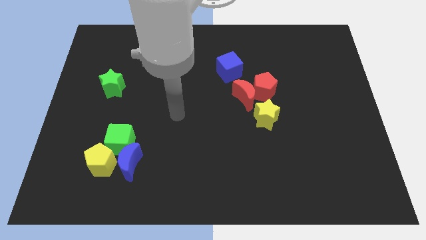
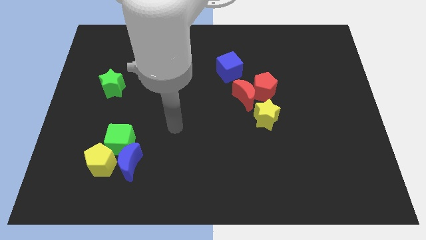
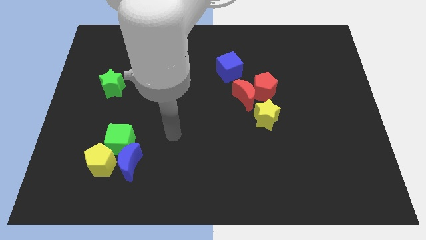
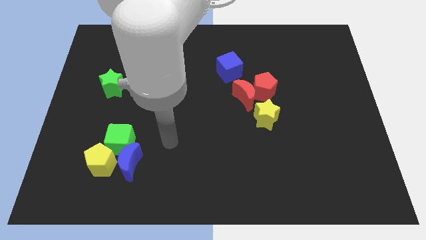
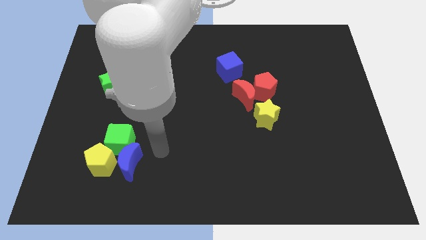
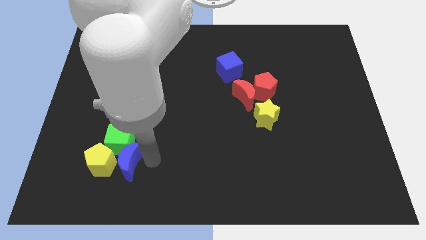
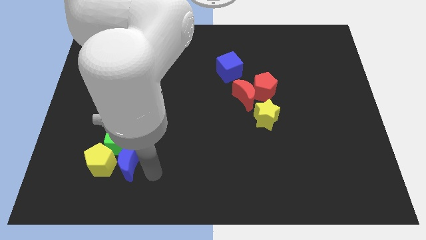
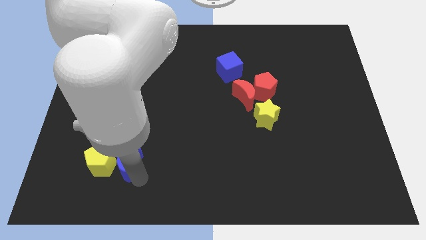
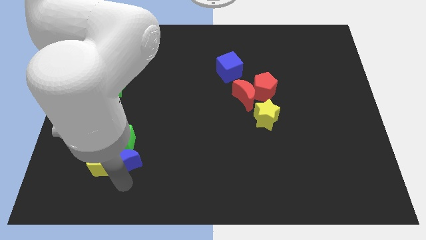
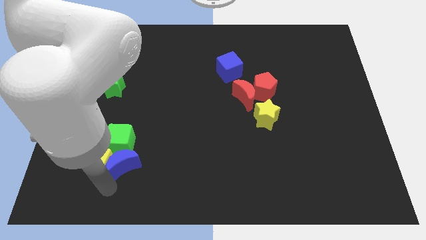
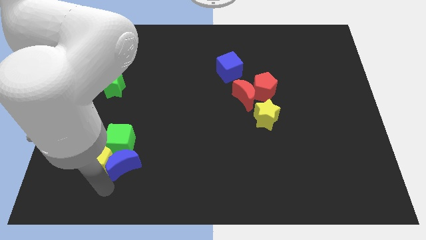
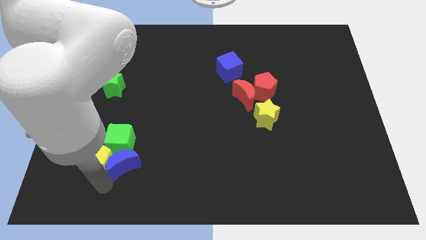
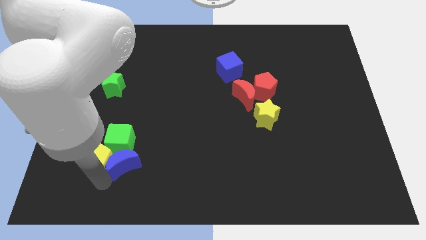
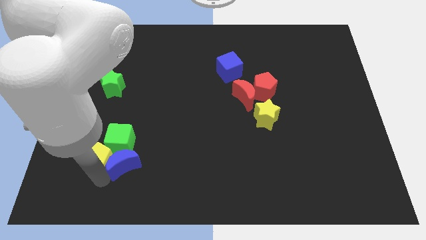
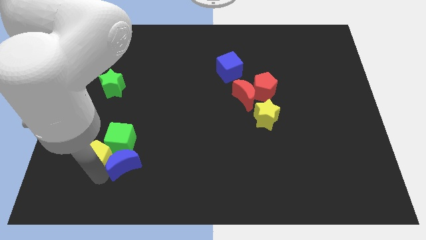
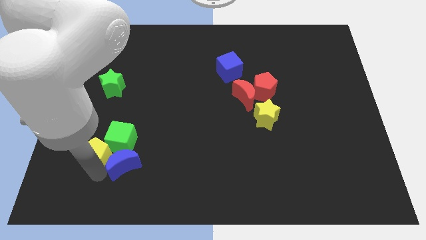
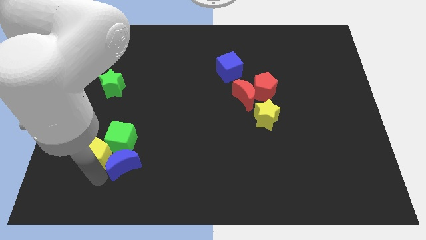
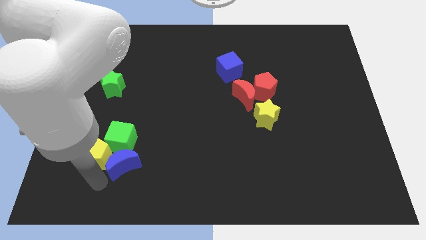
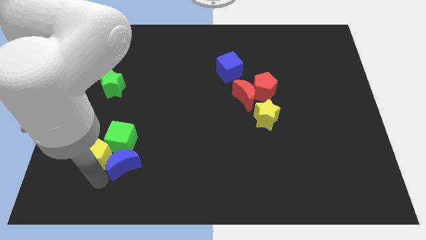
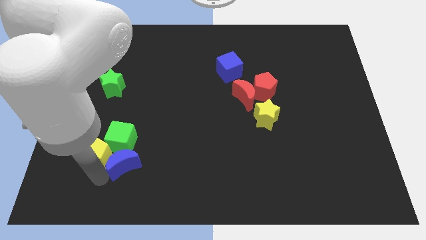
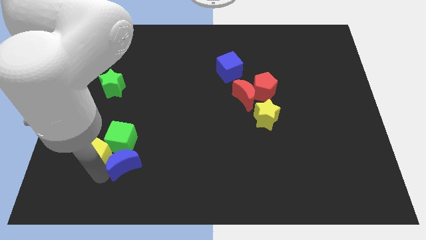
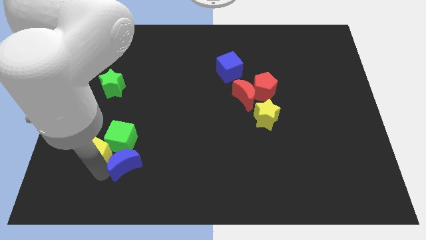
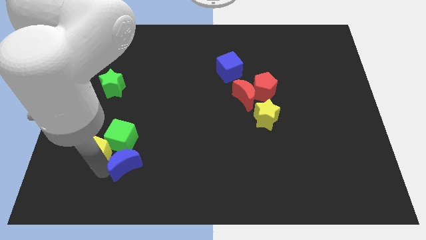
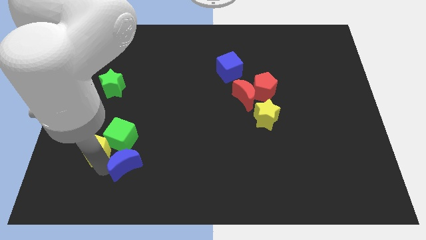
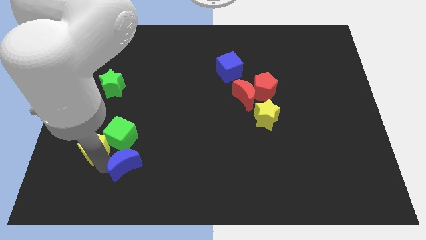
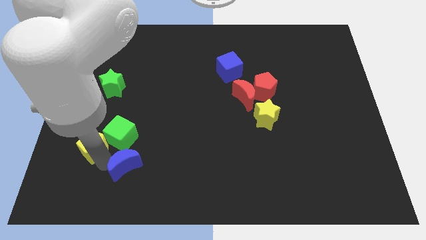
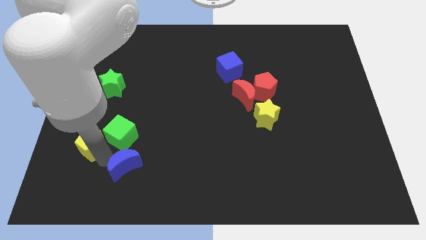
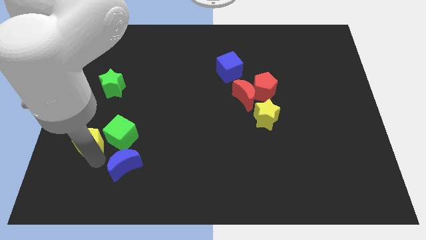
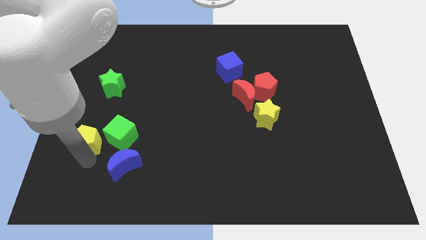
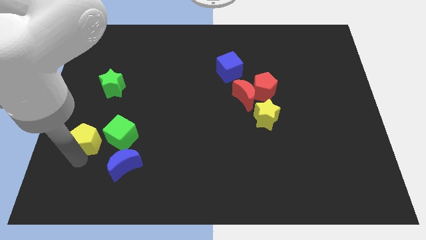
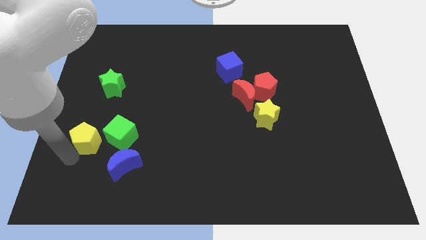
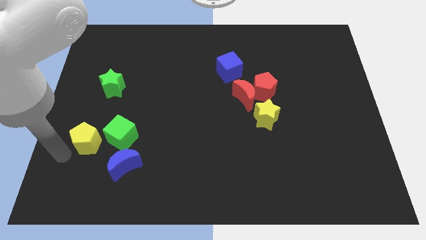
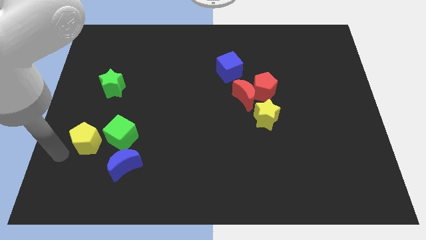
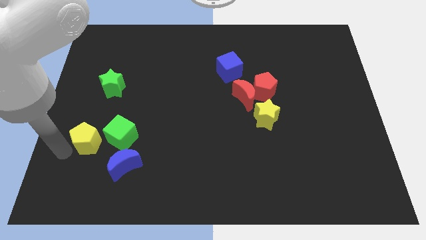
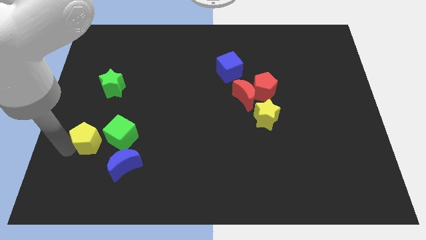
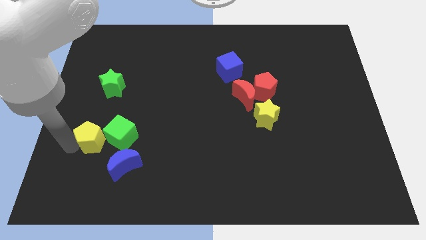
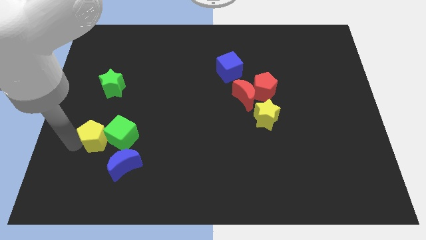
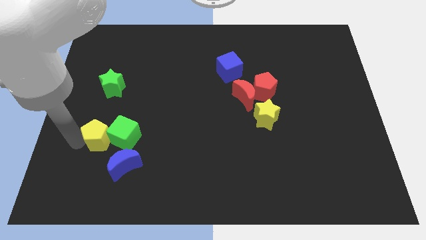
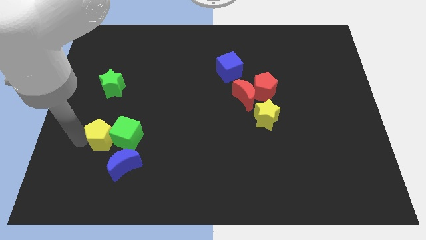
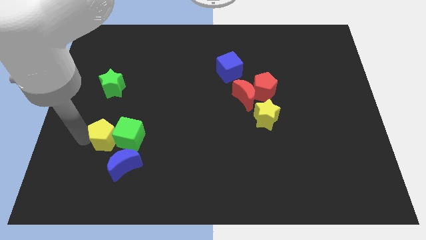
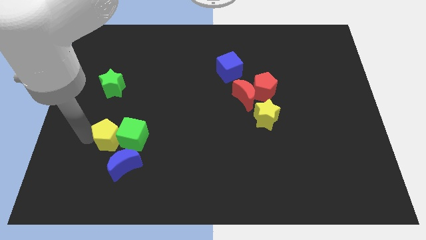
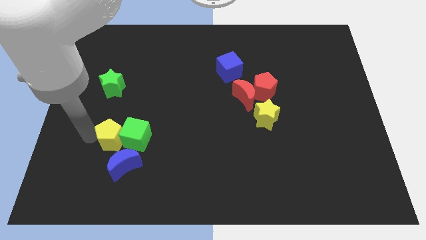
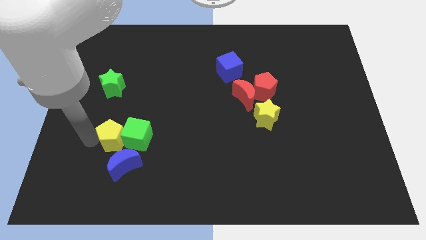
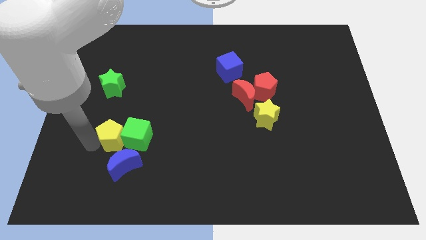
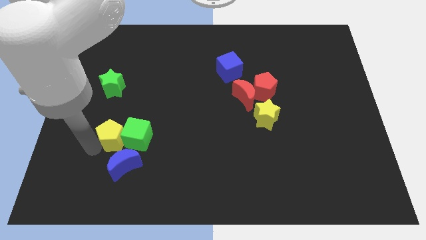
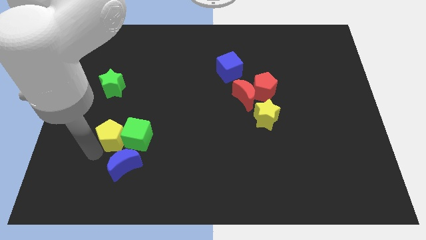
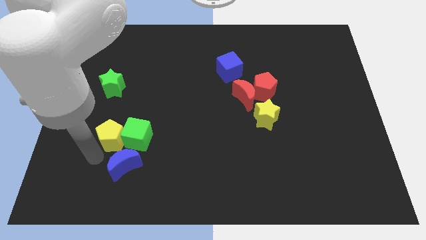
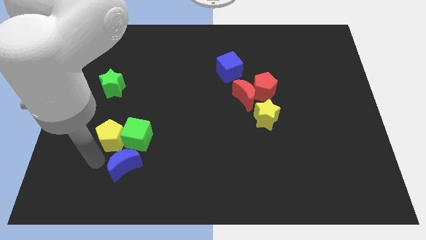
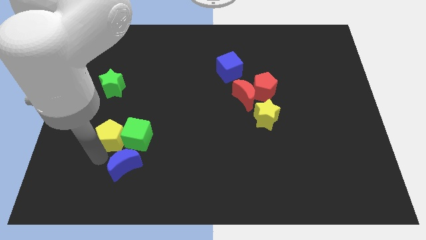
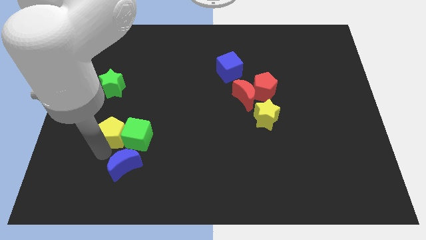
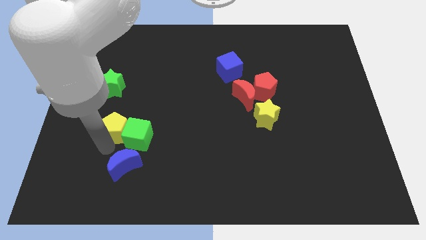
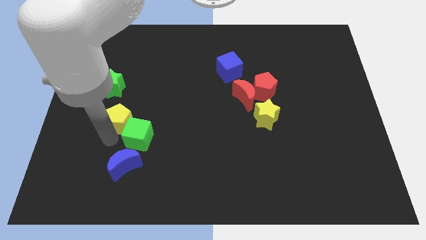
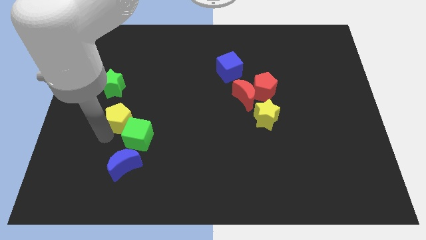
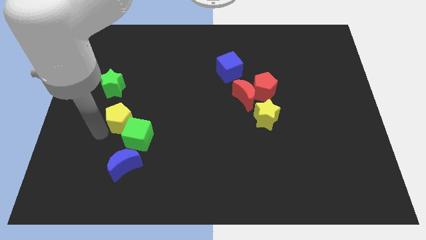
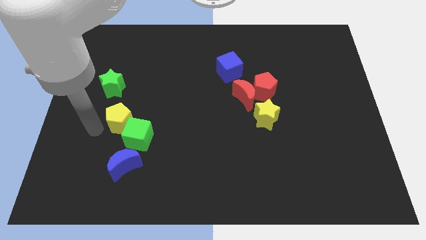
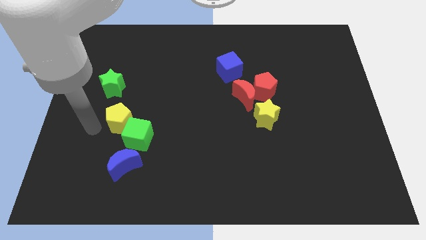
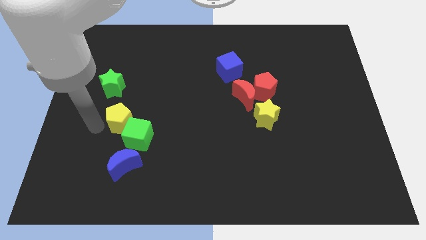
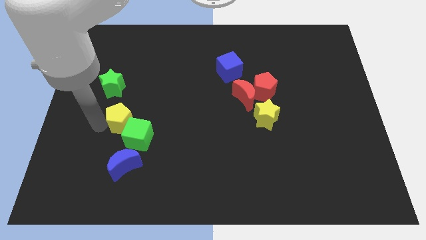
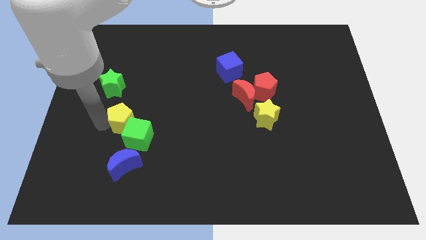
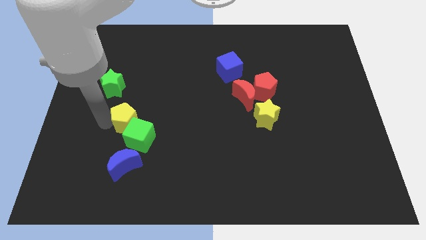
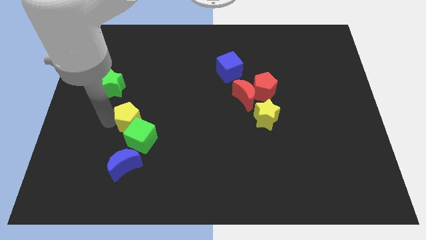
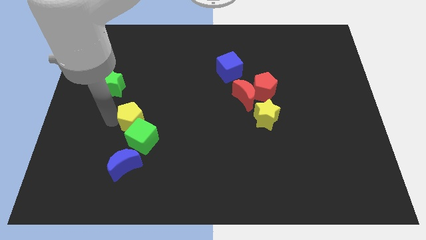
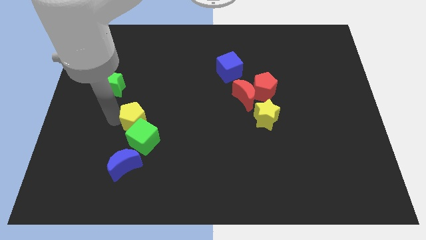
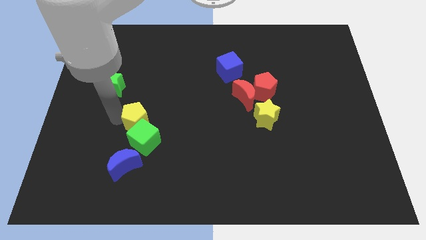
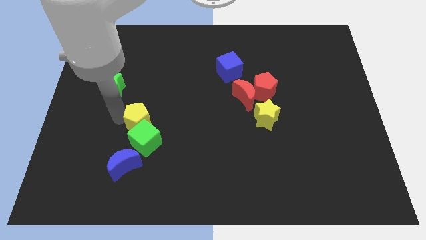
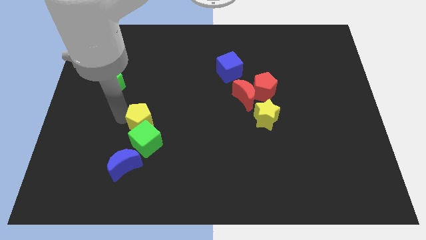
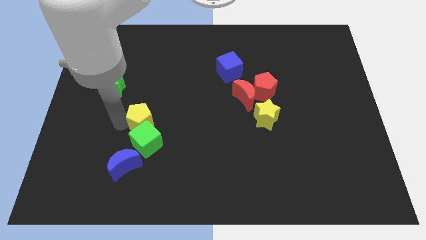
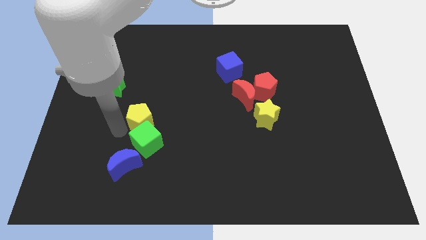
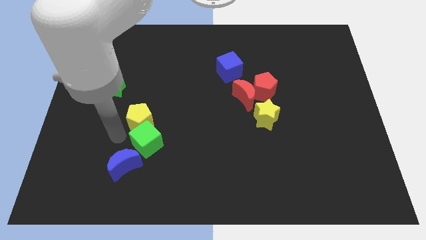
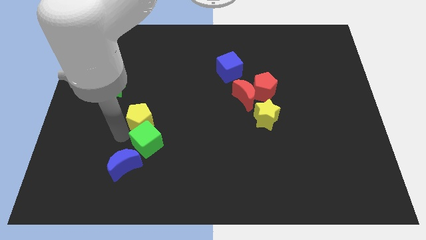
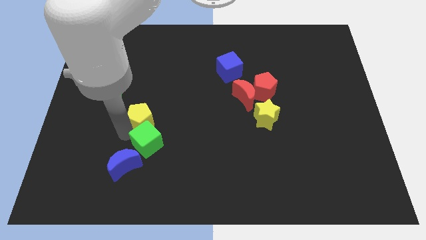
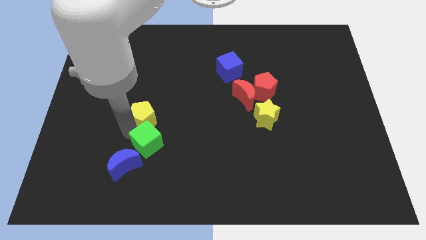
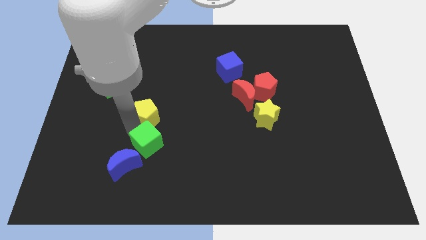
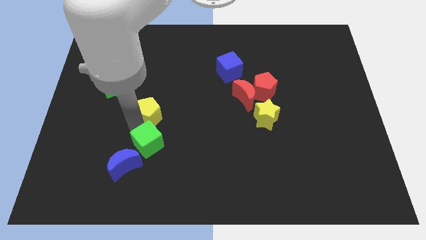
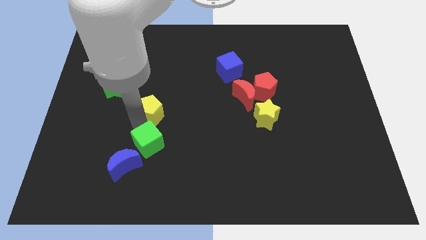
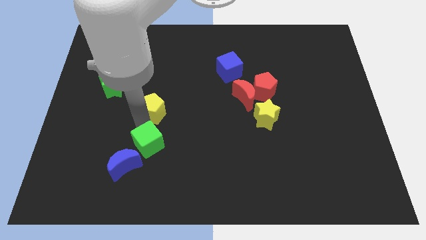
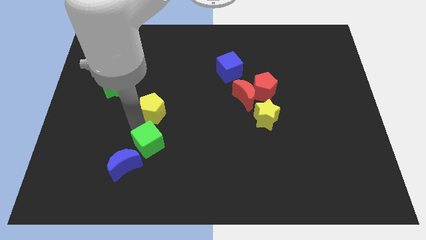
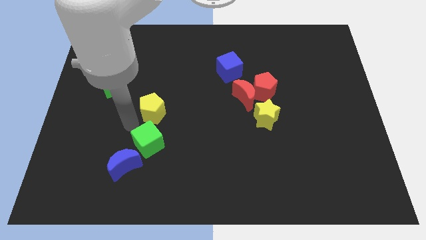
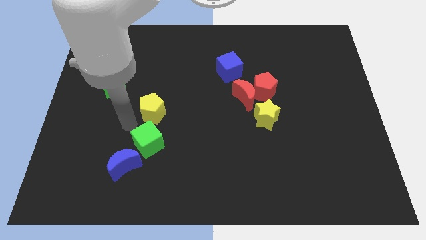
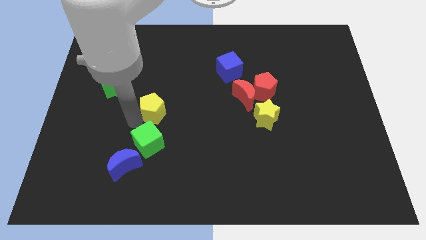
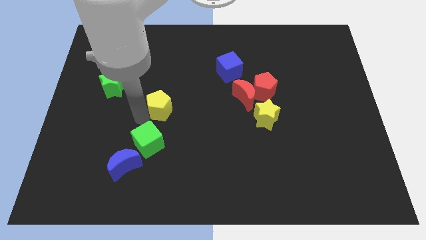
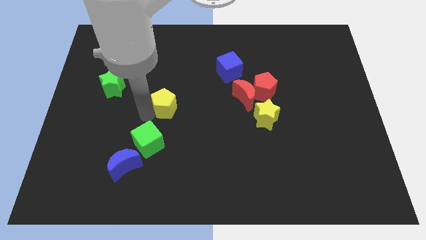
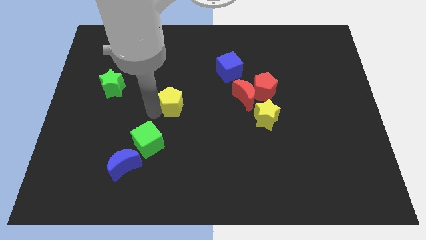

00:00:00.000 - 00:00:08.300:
slide the yellow pentagon up and to the right
